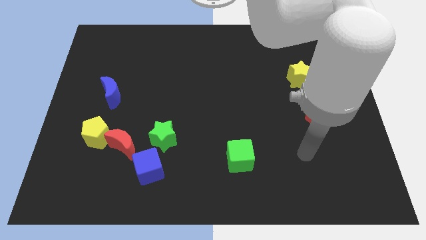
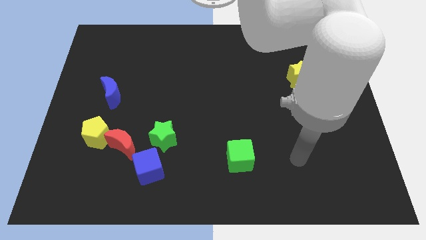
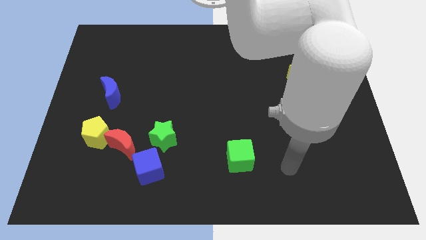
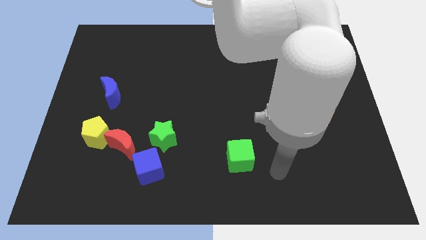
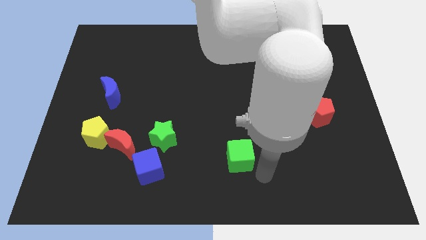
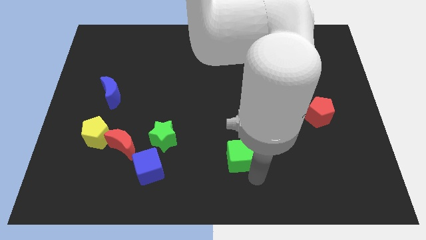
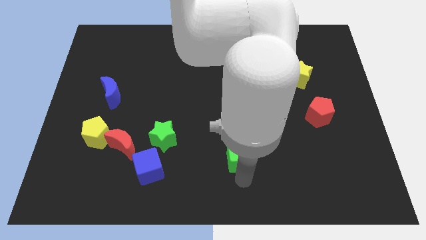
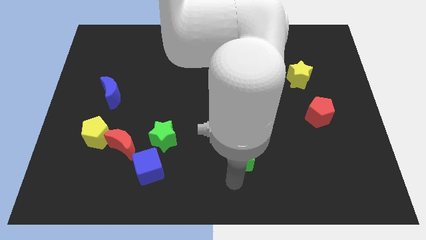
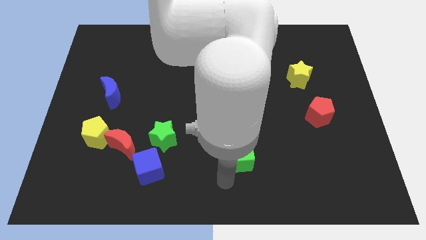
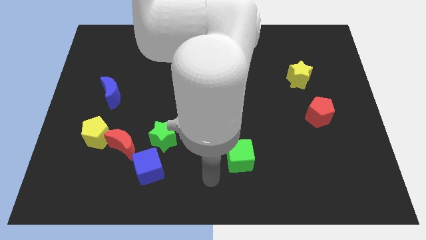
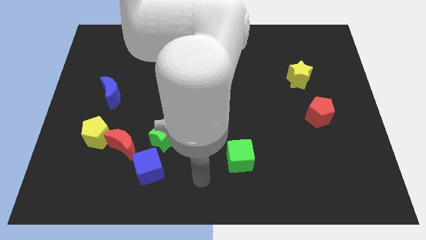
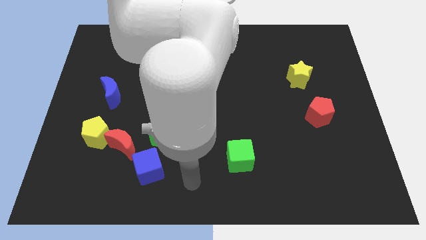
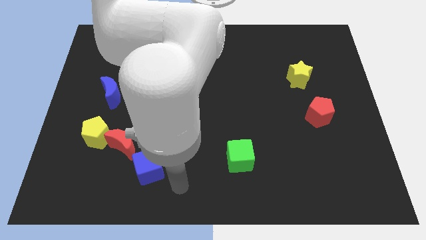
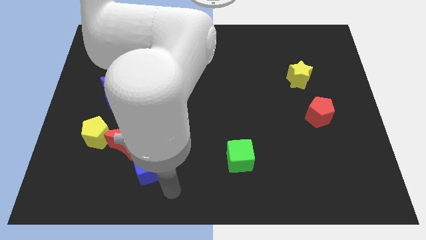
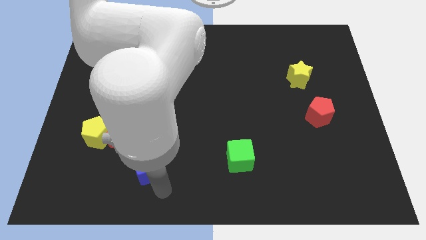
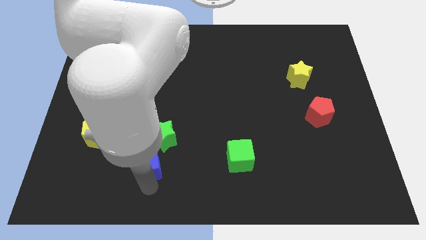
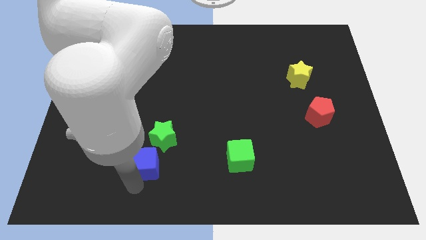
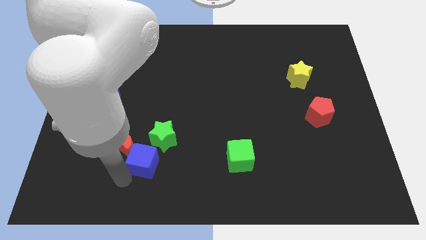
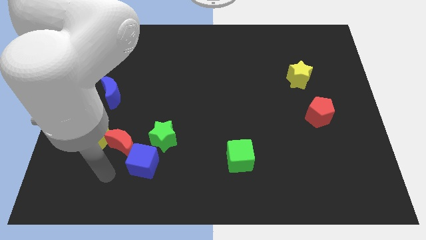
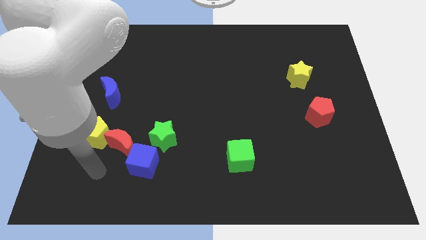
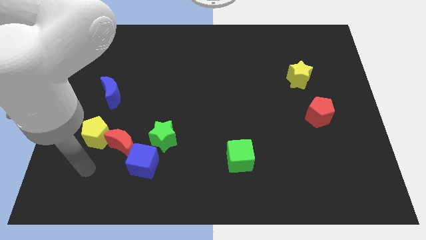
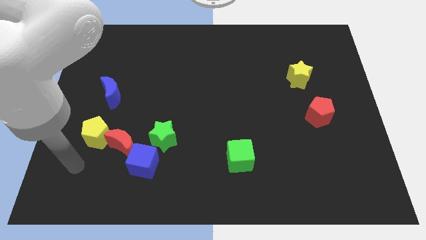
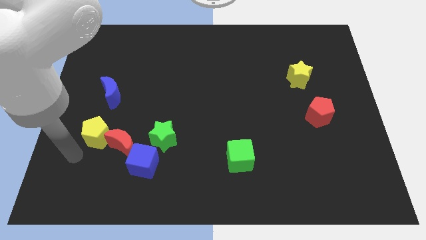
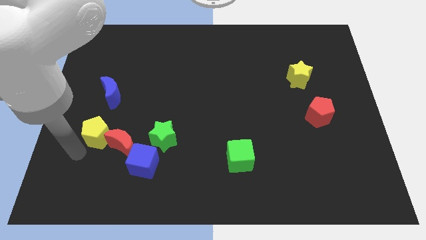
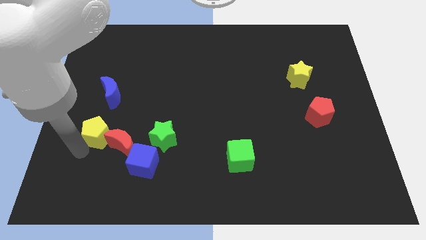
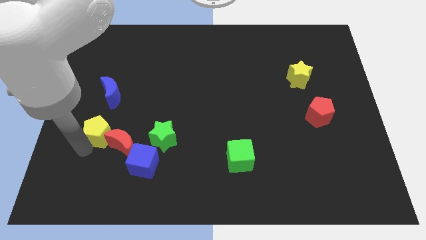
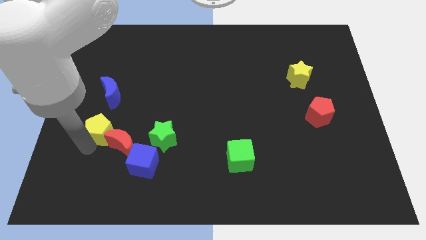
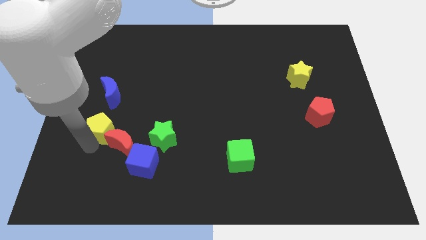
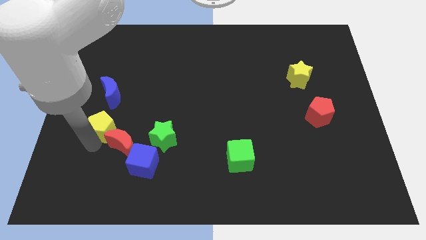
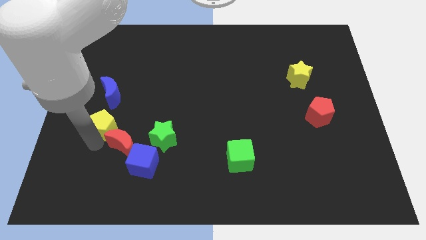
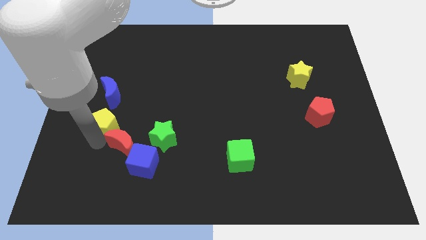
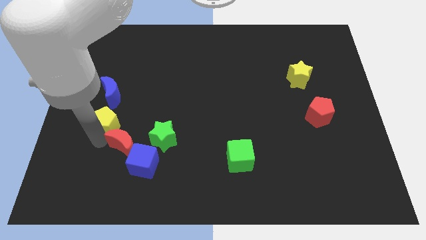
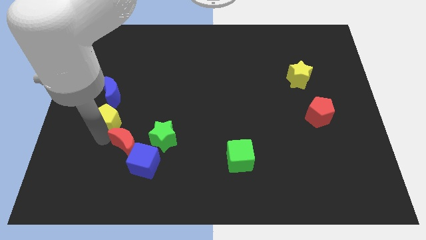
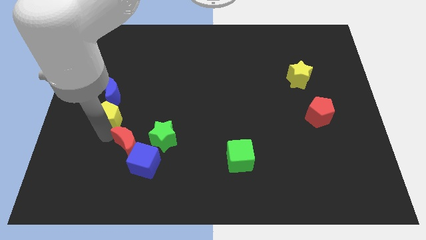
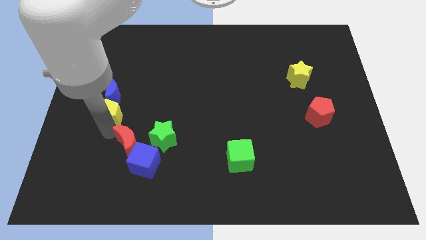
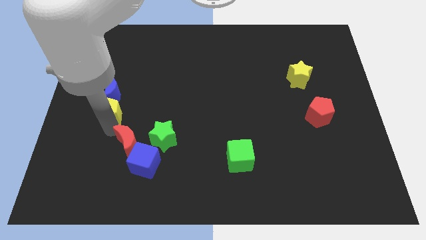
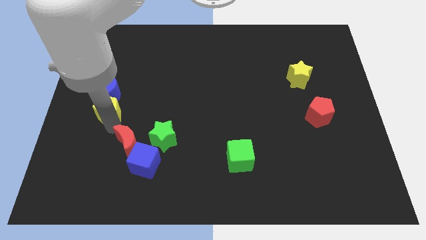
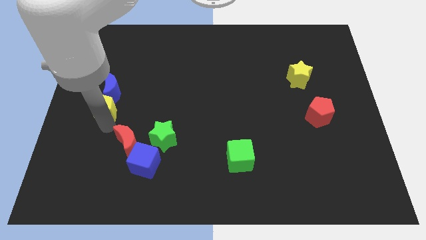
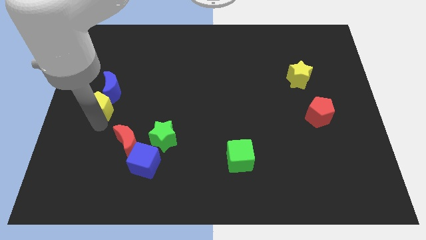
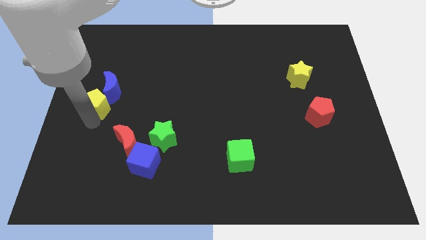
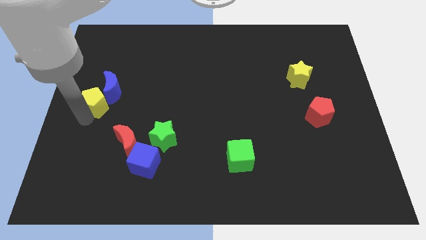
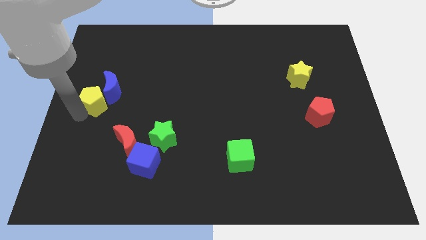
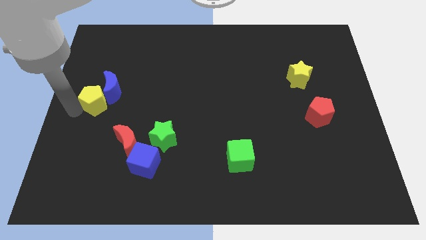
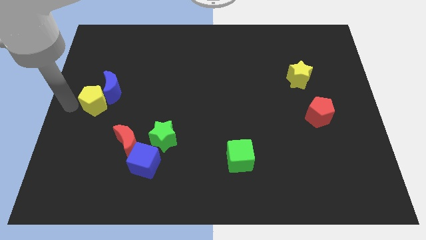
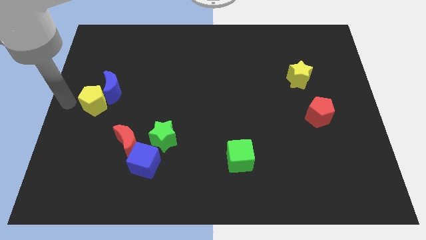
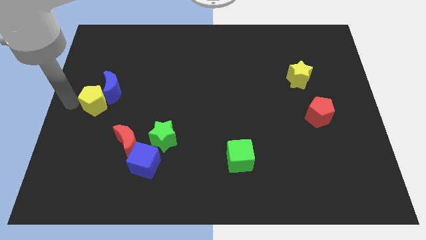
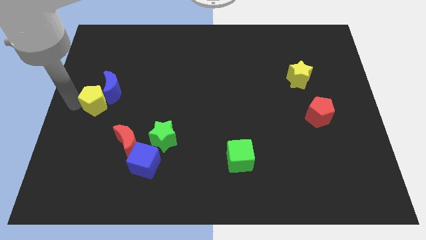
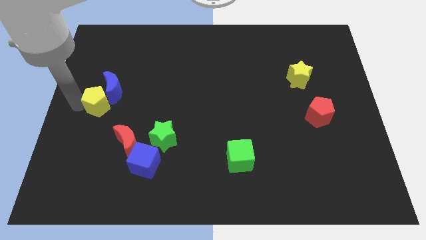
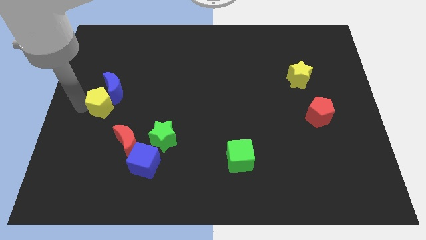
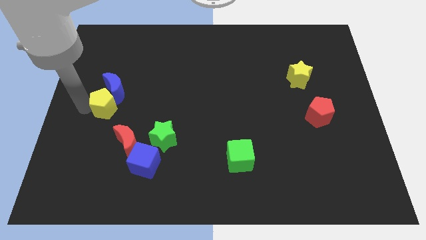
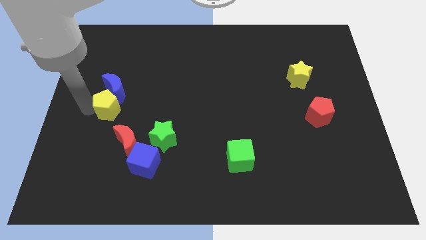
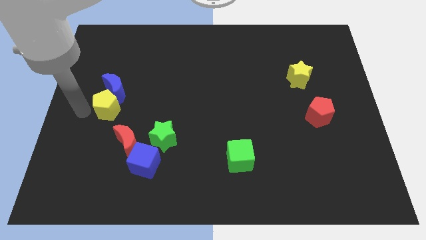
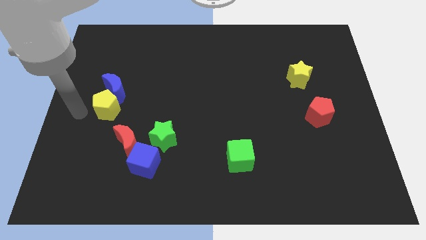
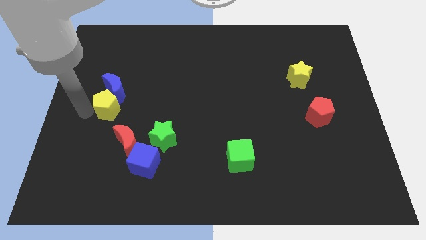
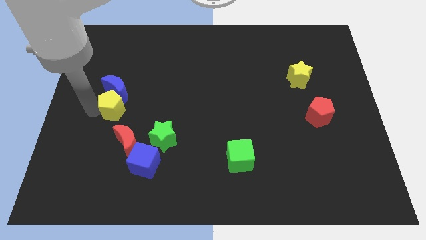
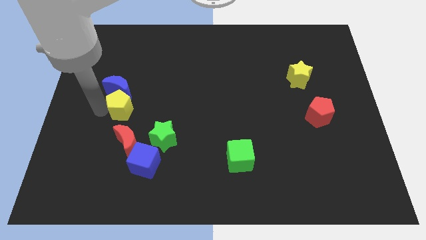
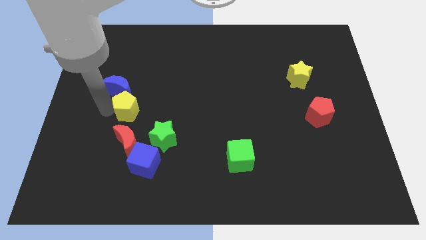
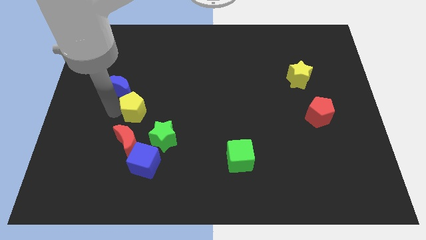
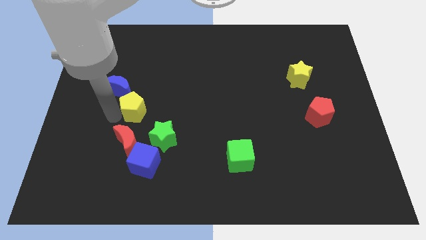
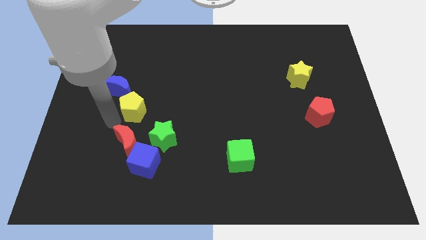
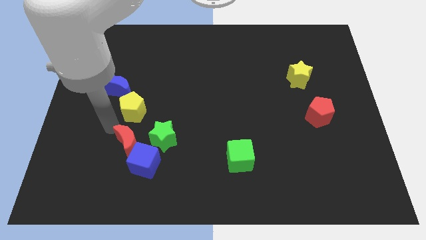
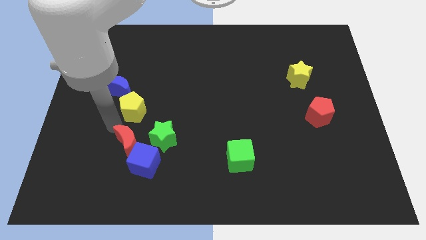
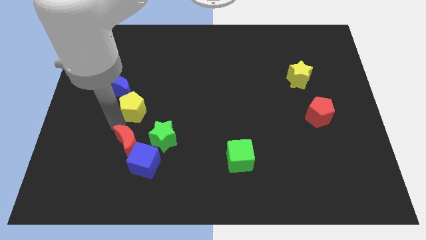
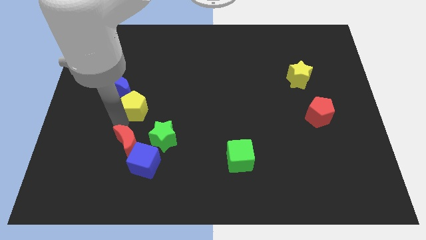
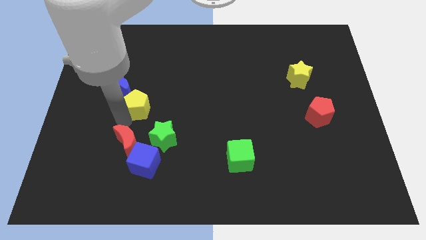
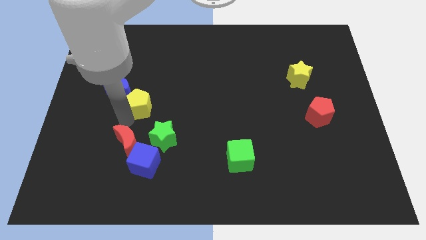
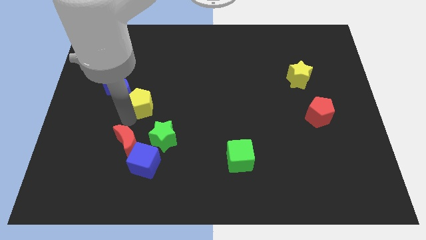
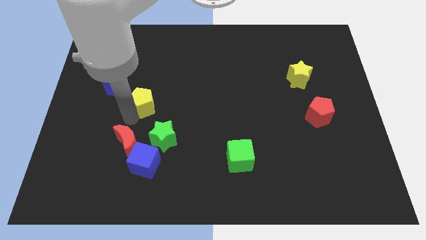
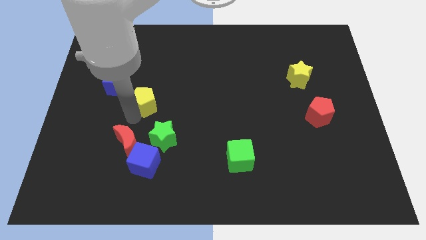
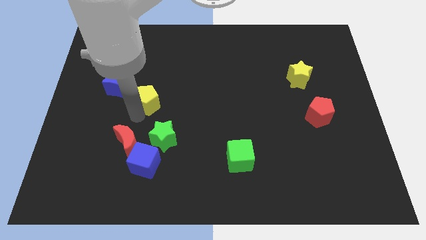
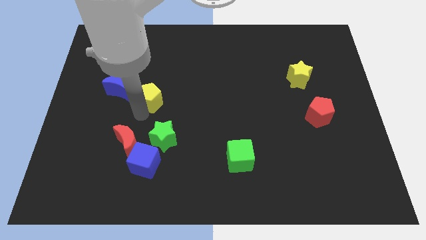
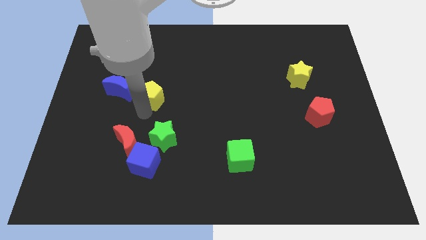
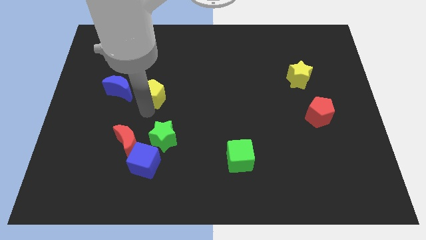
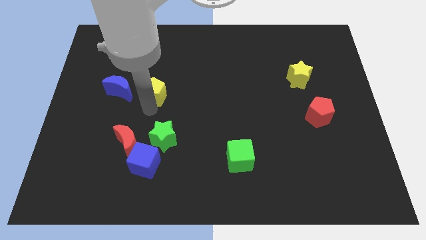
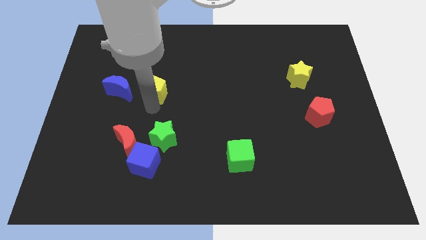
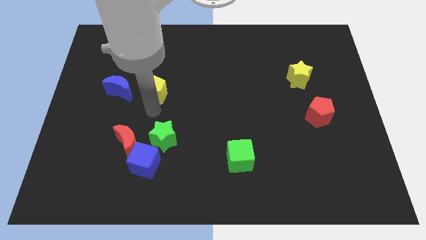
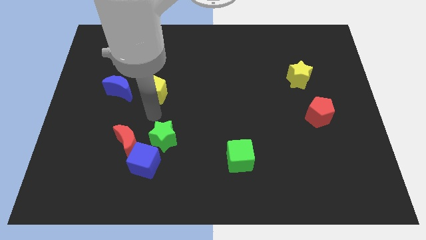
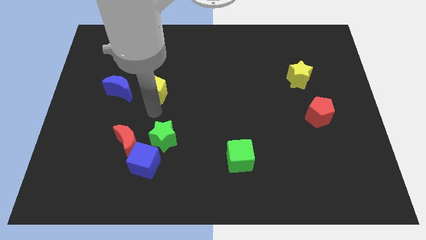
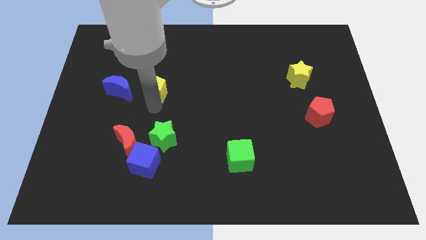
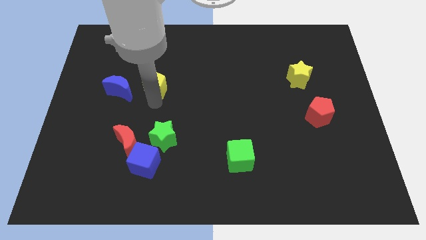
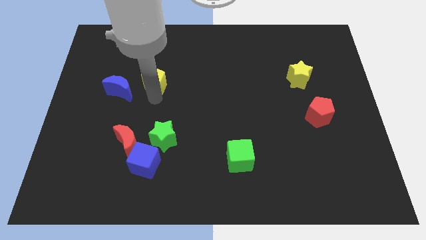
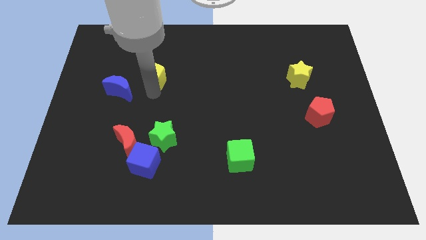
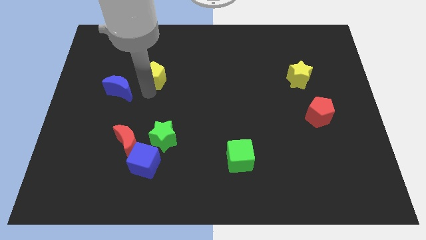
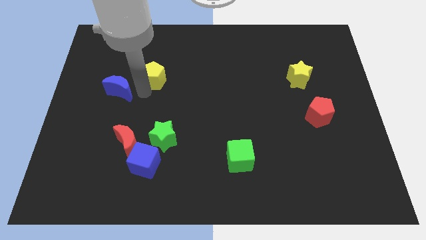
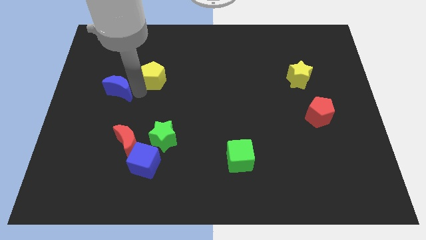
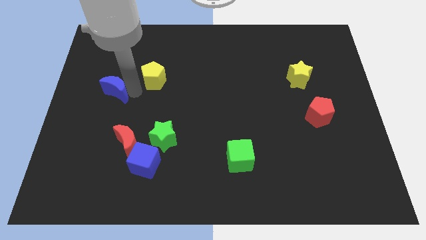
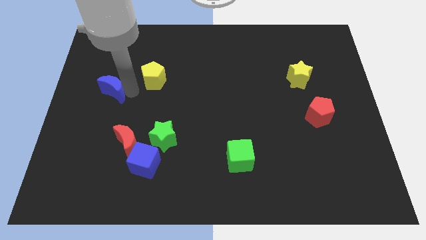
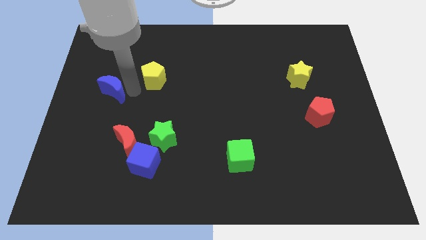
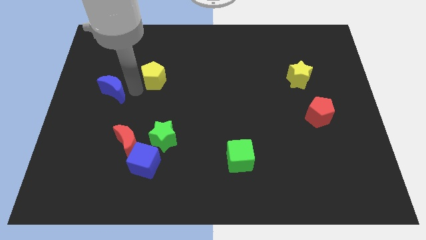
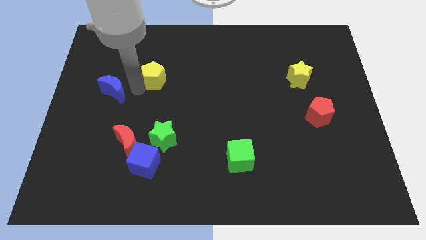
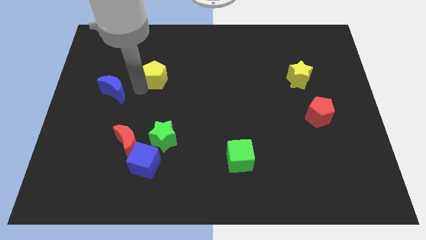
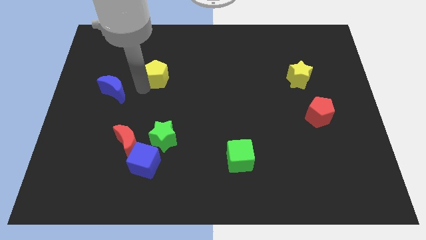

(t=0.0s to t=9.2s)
push the yellow pentagon upwards and then to the right
